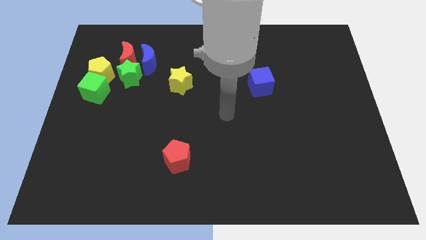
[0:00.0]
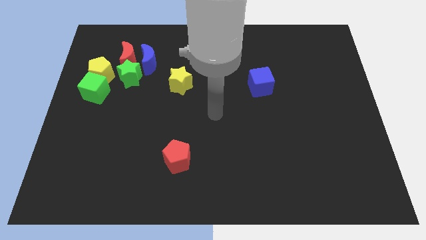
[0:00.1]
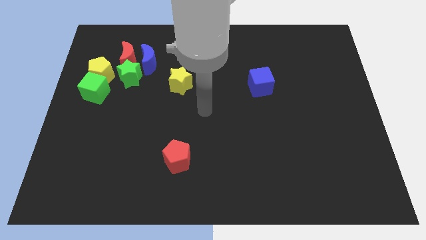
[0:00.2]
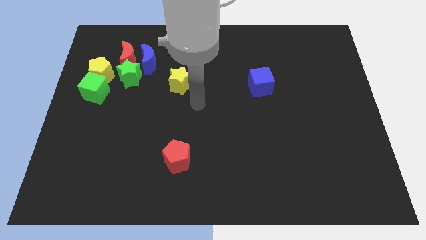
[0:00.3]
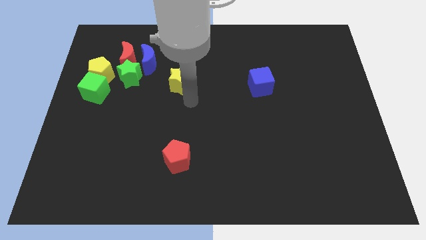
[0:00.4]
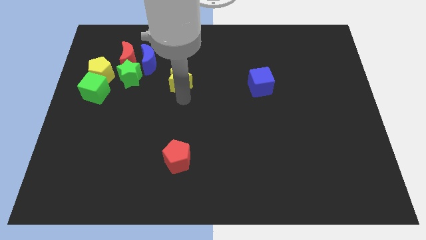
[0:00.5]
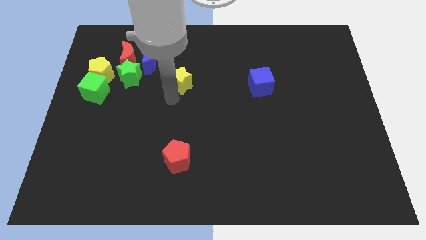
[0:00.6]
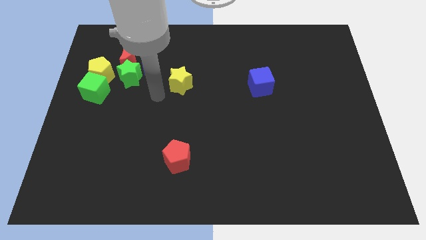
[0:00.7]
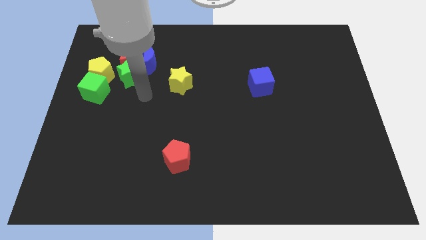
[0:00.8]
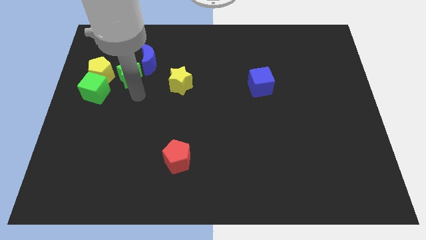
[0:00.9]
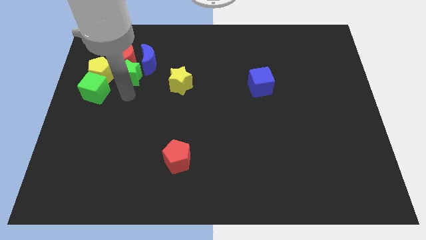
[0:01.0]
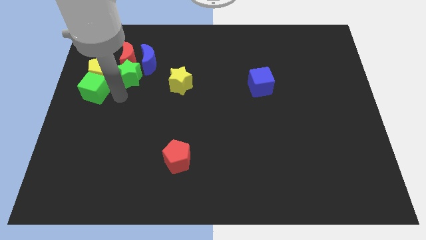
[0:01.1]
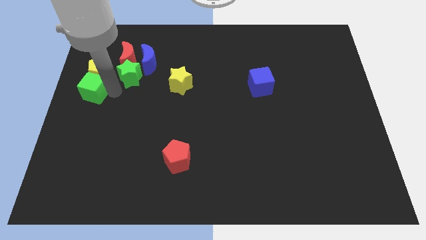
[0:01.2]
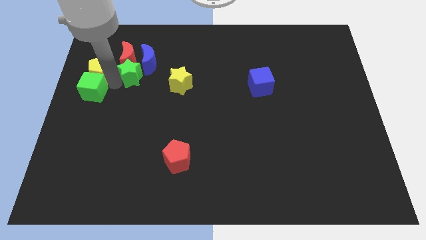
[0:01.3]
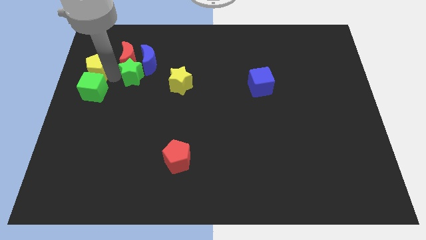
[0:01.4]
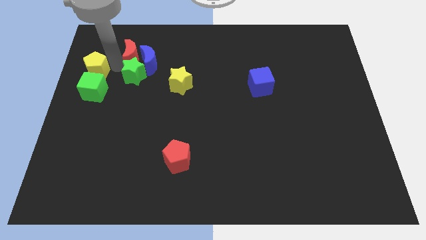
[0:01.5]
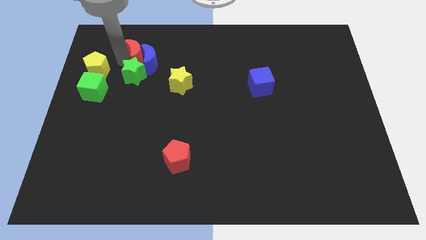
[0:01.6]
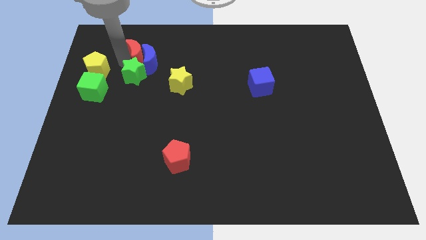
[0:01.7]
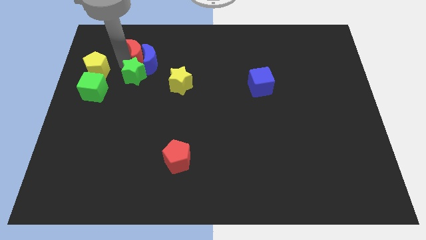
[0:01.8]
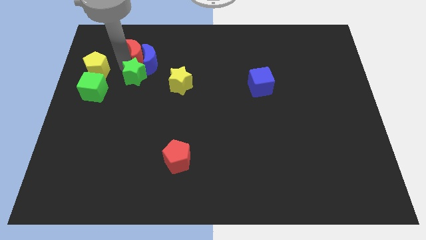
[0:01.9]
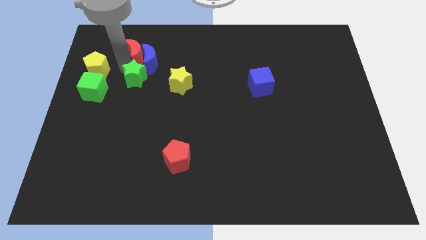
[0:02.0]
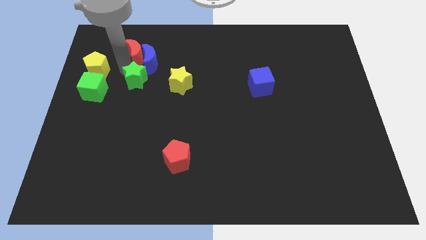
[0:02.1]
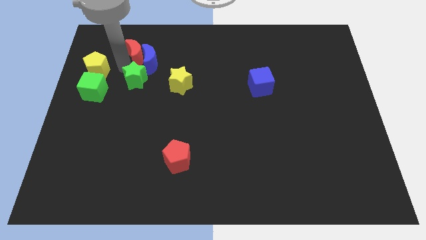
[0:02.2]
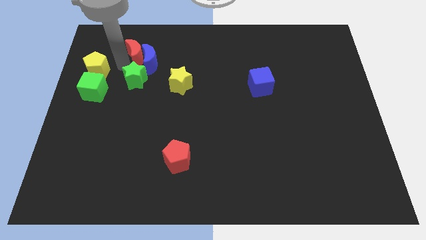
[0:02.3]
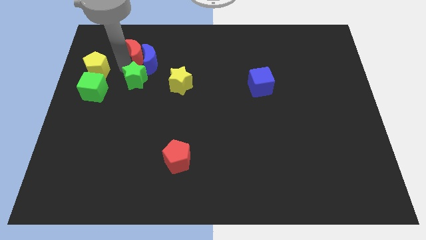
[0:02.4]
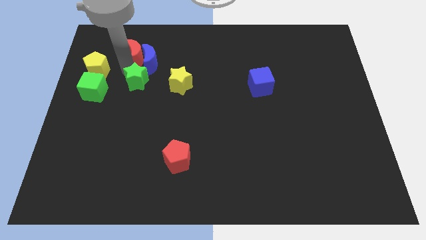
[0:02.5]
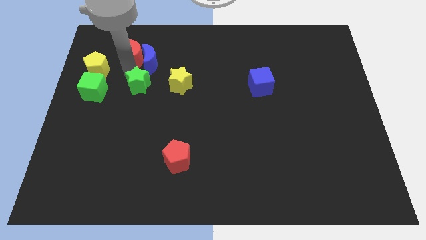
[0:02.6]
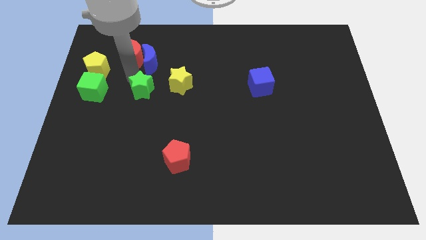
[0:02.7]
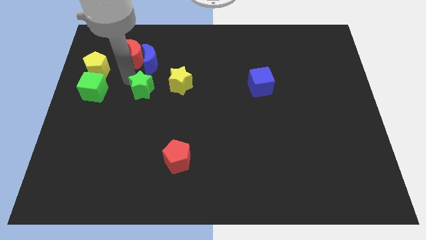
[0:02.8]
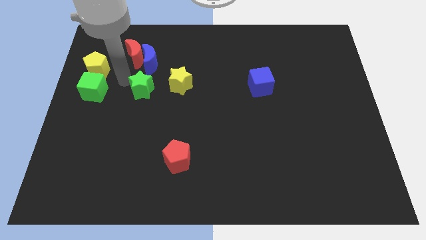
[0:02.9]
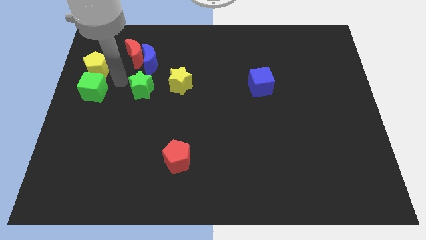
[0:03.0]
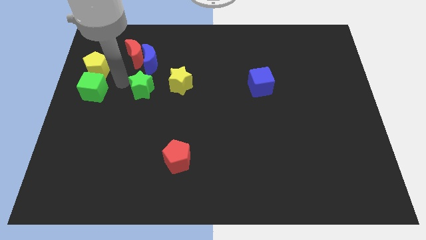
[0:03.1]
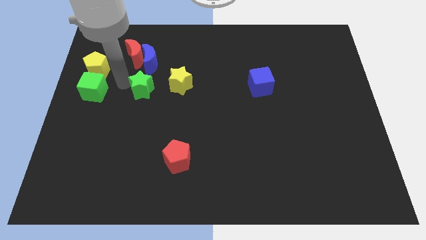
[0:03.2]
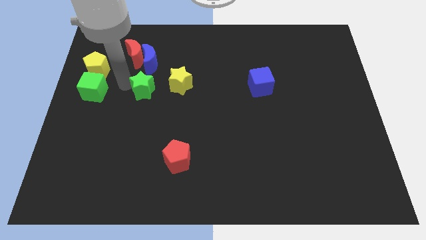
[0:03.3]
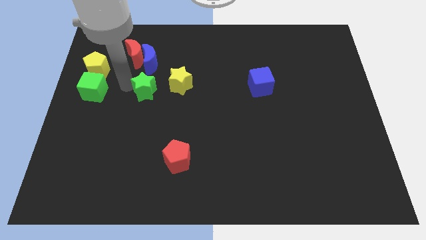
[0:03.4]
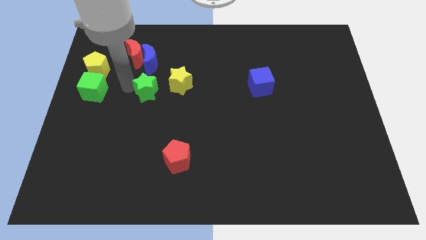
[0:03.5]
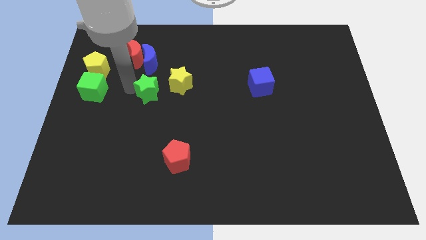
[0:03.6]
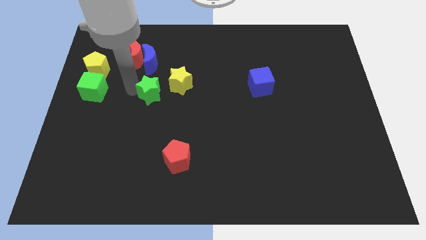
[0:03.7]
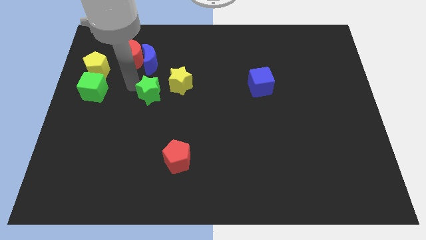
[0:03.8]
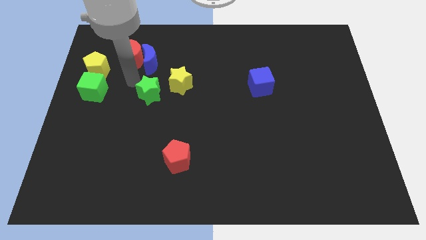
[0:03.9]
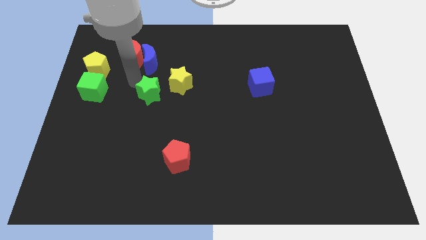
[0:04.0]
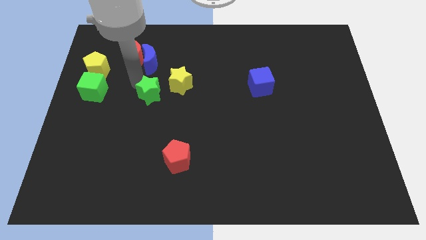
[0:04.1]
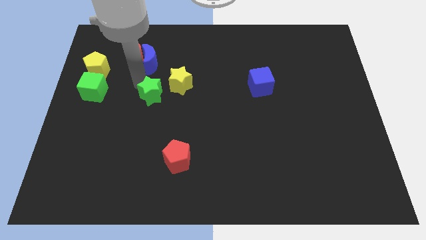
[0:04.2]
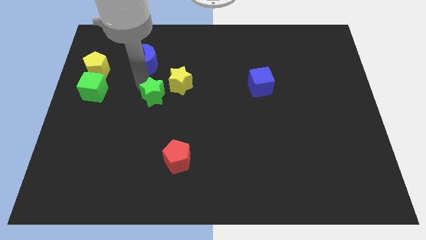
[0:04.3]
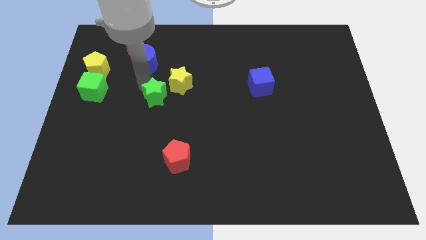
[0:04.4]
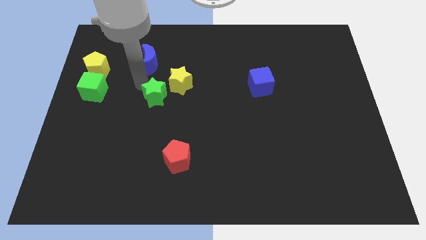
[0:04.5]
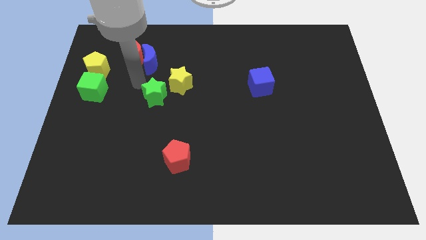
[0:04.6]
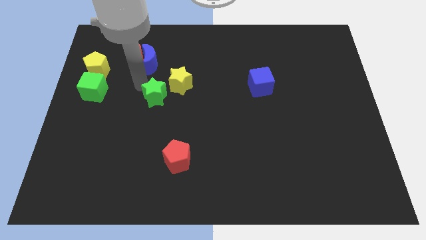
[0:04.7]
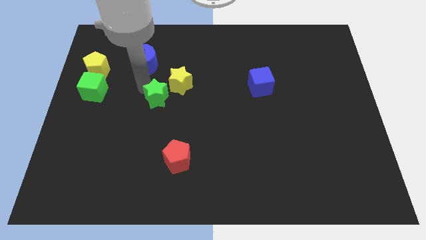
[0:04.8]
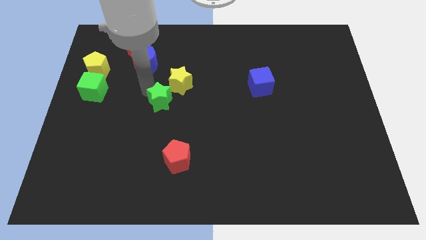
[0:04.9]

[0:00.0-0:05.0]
slide the green star below the yellow star

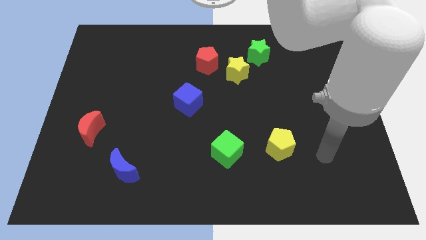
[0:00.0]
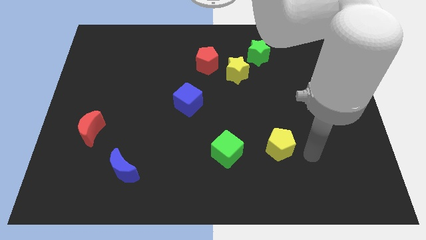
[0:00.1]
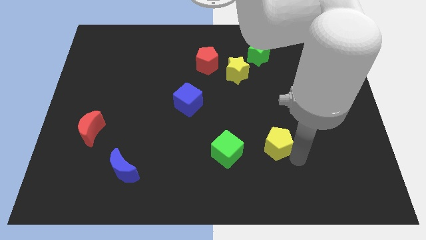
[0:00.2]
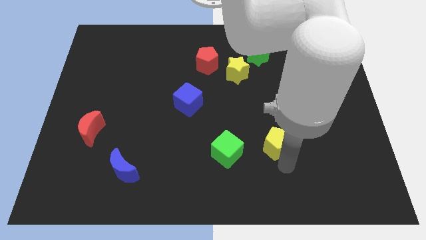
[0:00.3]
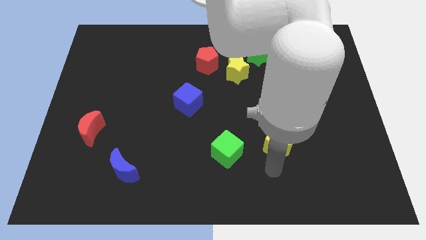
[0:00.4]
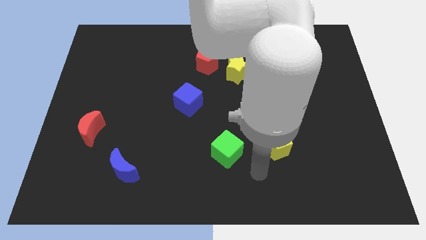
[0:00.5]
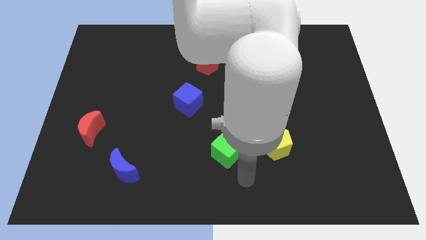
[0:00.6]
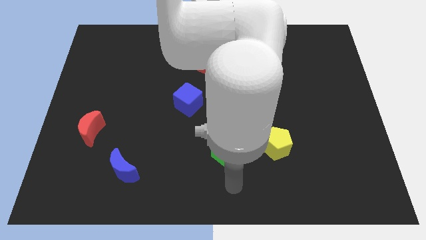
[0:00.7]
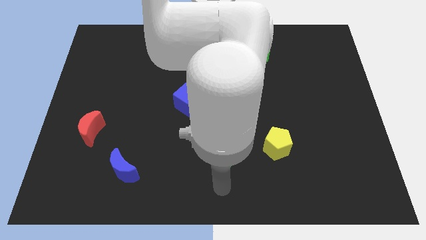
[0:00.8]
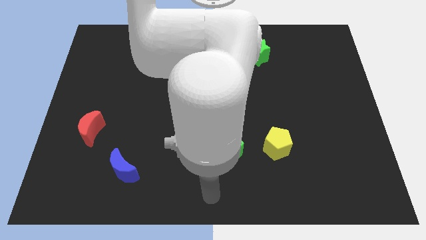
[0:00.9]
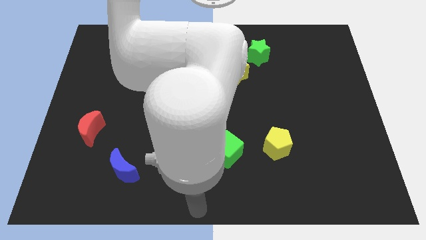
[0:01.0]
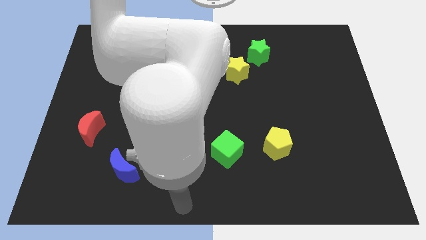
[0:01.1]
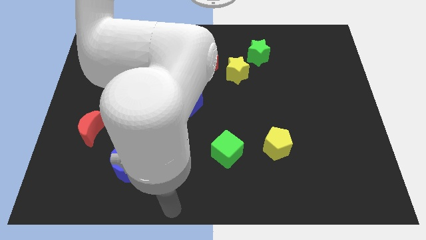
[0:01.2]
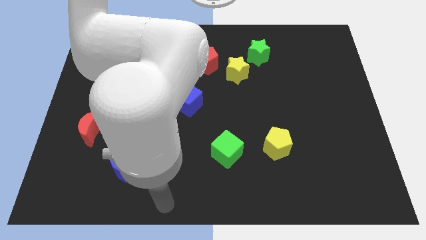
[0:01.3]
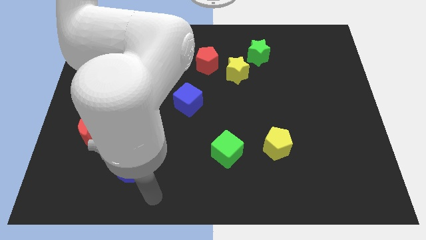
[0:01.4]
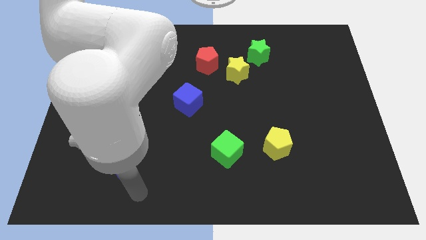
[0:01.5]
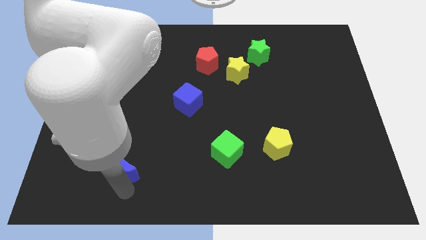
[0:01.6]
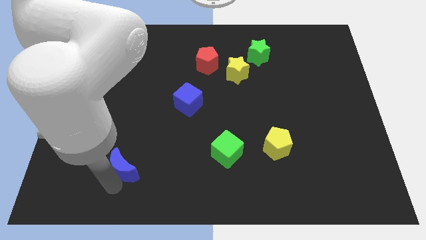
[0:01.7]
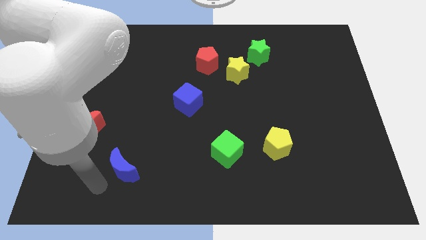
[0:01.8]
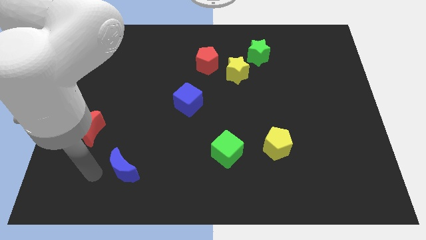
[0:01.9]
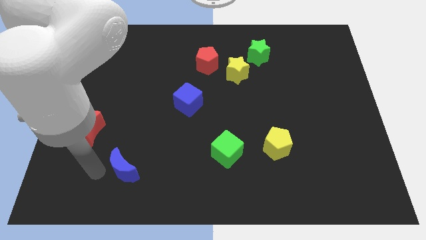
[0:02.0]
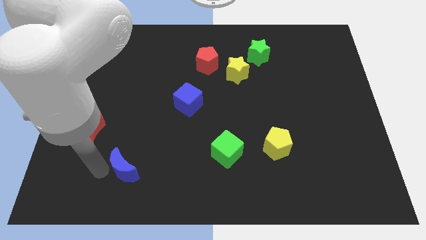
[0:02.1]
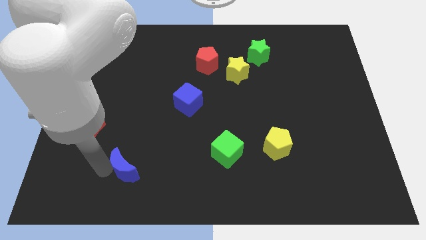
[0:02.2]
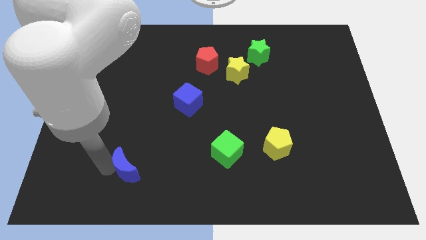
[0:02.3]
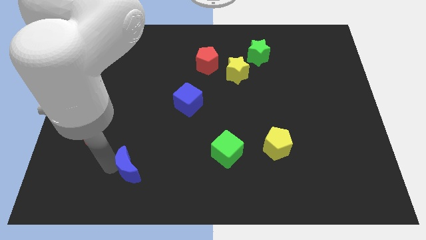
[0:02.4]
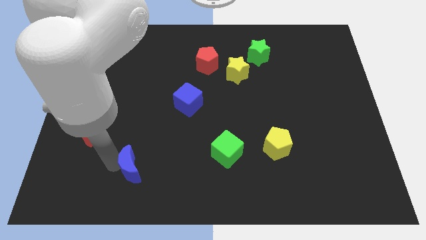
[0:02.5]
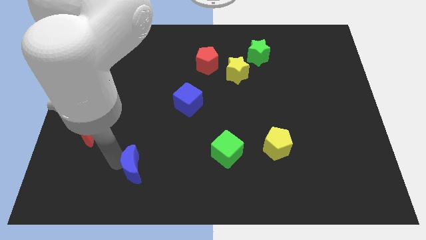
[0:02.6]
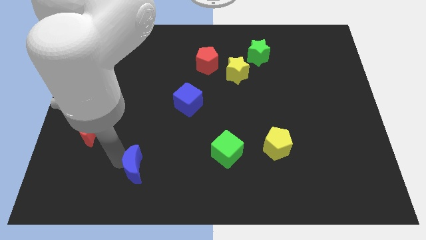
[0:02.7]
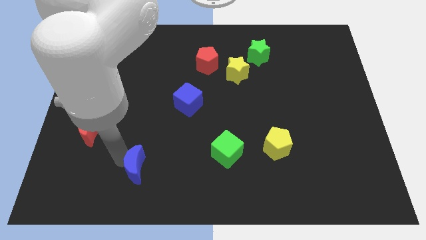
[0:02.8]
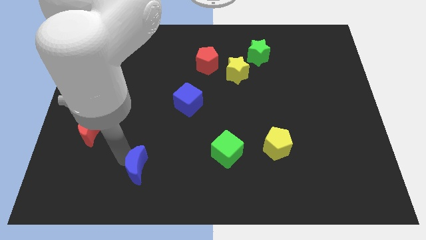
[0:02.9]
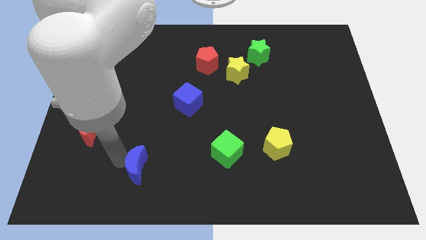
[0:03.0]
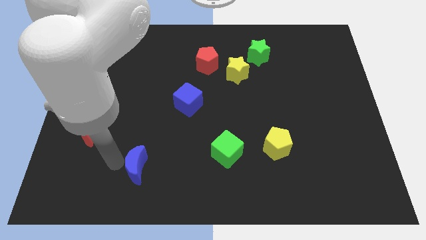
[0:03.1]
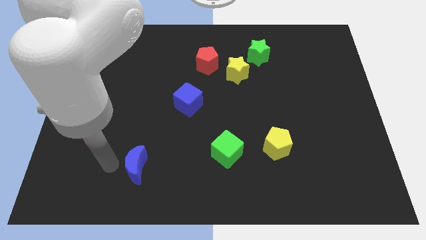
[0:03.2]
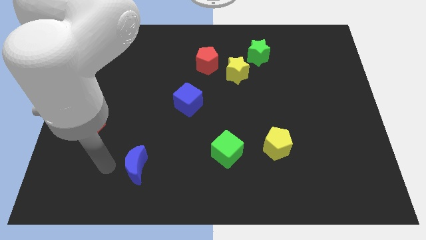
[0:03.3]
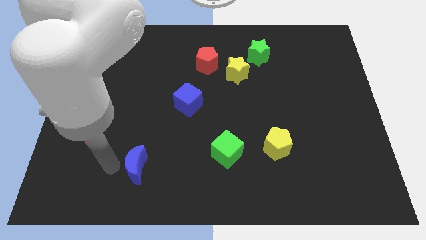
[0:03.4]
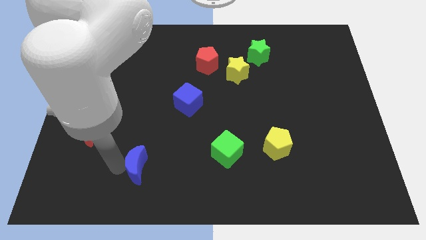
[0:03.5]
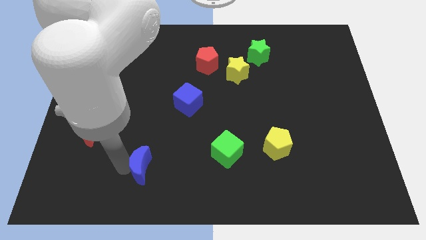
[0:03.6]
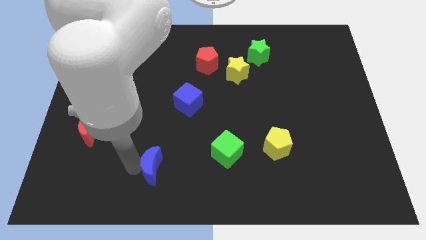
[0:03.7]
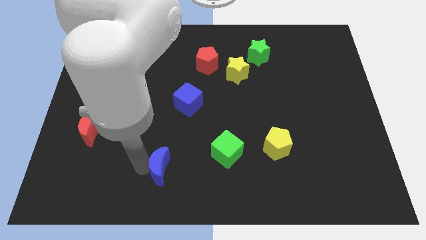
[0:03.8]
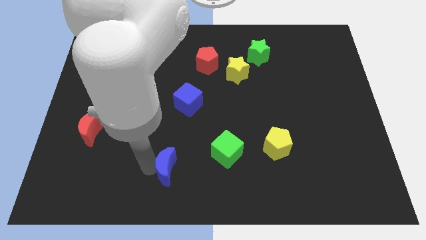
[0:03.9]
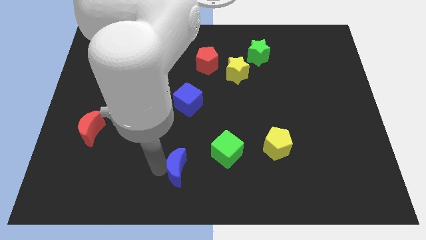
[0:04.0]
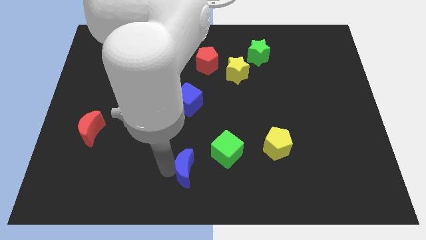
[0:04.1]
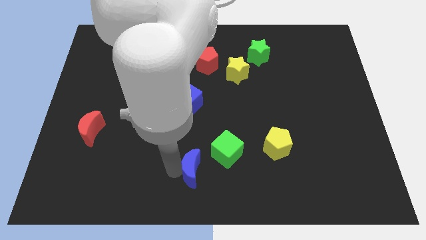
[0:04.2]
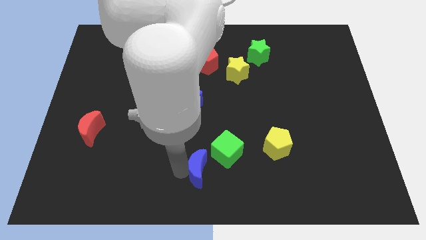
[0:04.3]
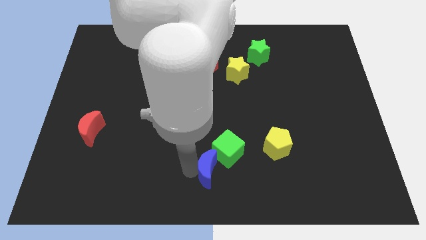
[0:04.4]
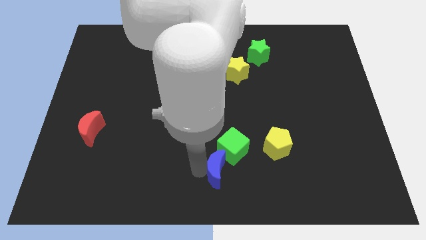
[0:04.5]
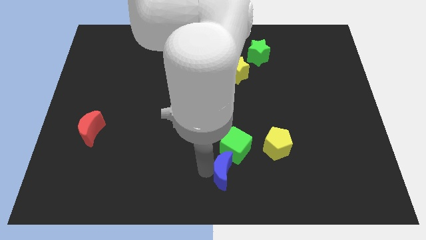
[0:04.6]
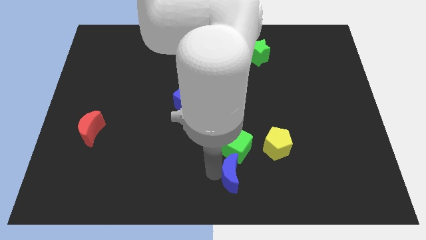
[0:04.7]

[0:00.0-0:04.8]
slide the blue moon to the bottom left side of the yellow pentagon
